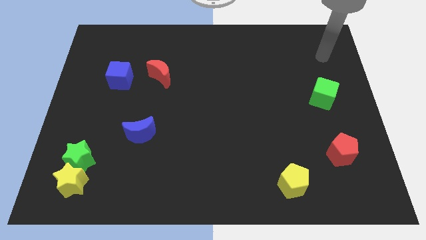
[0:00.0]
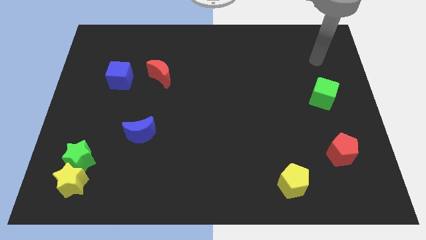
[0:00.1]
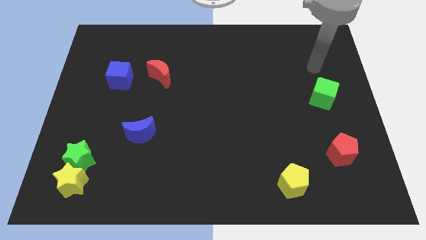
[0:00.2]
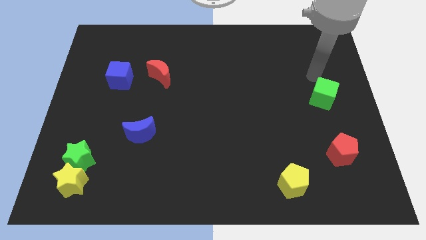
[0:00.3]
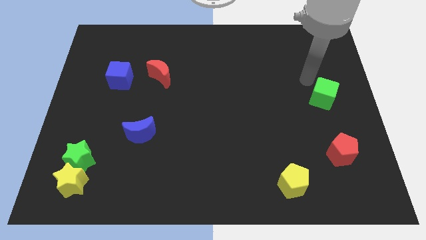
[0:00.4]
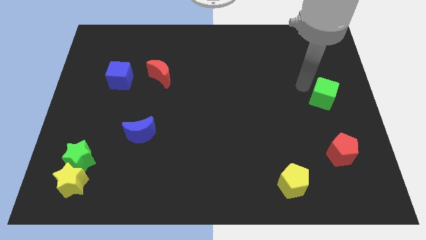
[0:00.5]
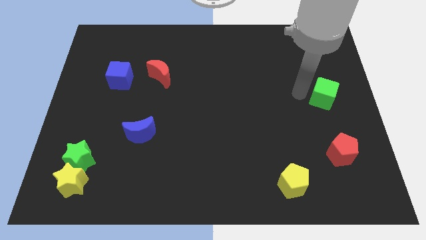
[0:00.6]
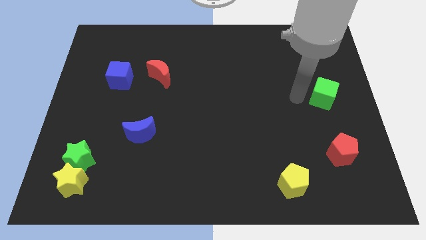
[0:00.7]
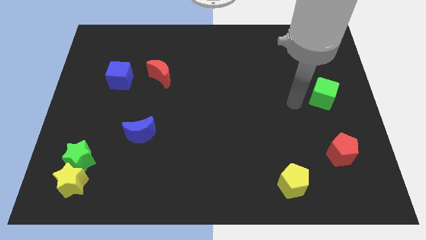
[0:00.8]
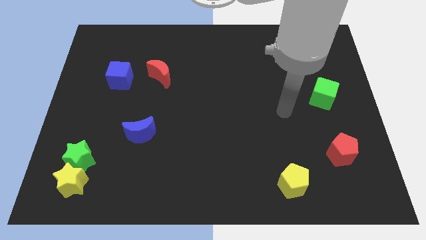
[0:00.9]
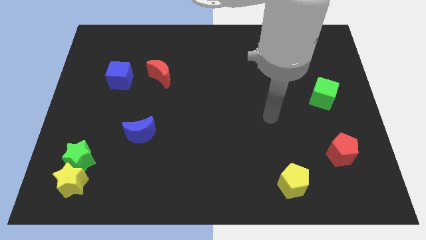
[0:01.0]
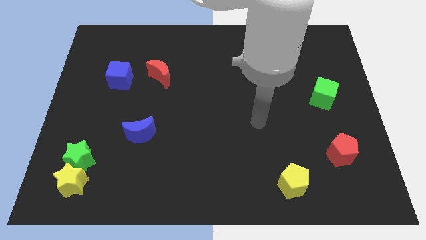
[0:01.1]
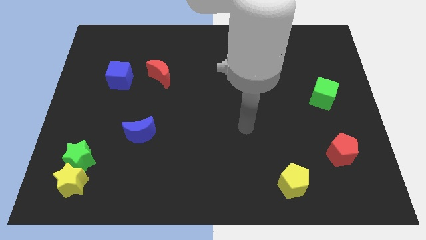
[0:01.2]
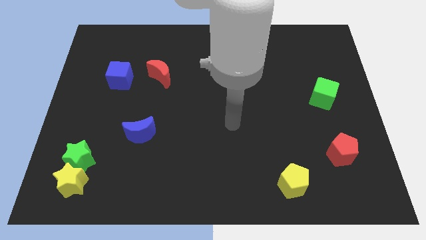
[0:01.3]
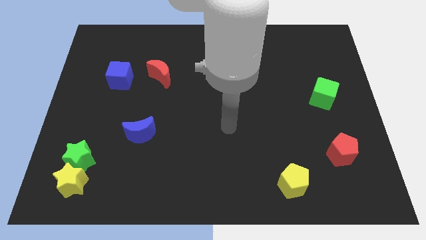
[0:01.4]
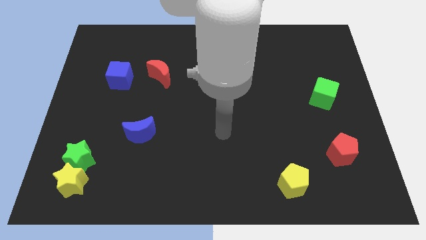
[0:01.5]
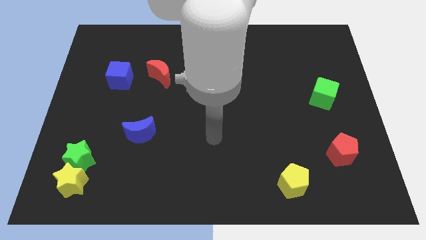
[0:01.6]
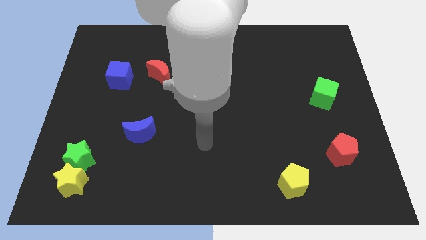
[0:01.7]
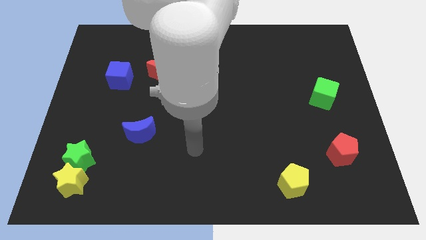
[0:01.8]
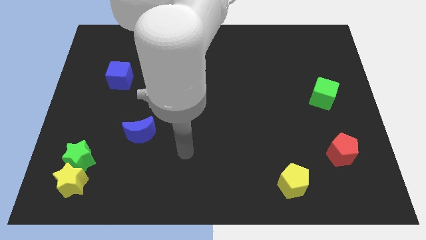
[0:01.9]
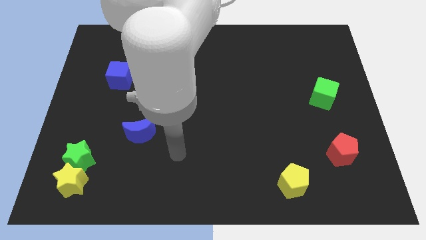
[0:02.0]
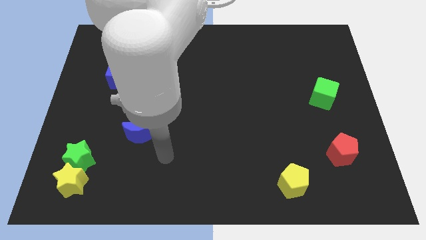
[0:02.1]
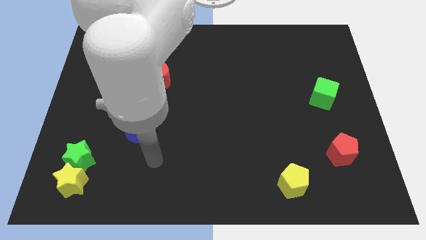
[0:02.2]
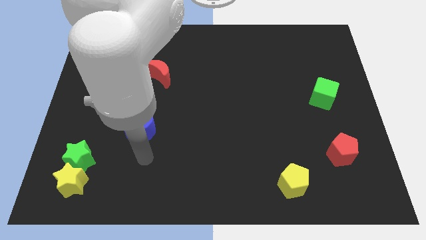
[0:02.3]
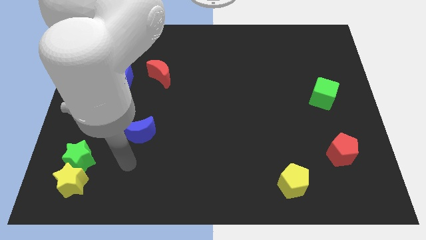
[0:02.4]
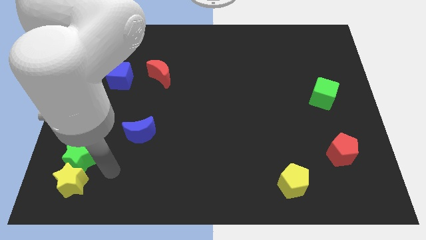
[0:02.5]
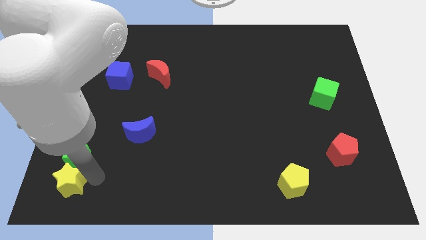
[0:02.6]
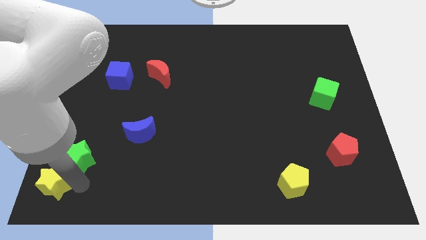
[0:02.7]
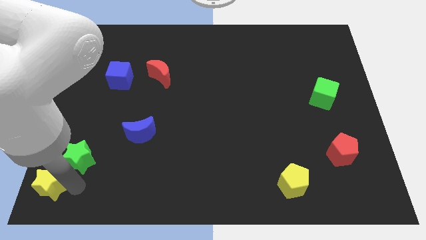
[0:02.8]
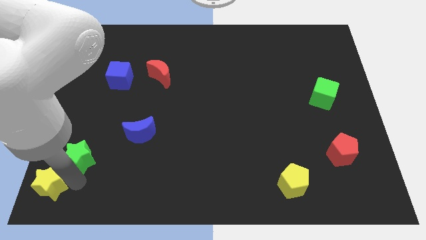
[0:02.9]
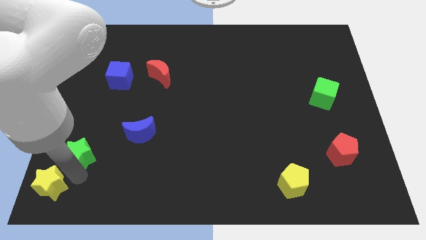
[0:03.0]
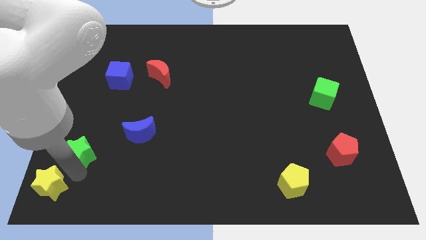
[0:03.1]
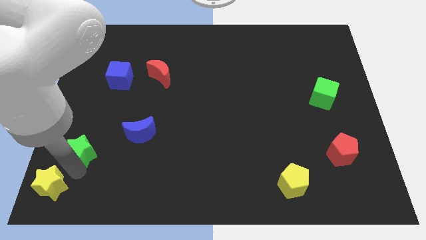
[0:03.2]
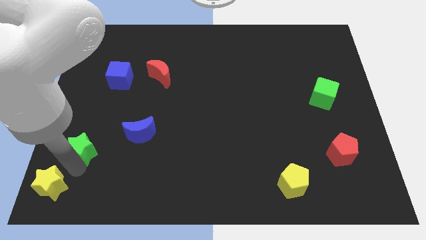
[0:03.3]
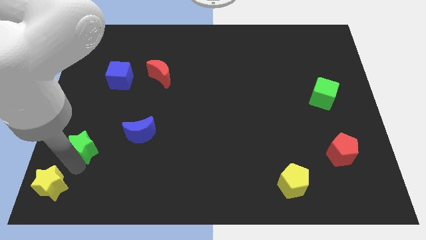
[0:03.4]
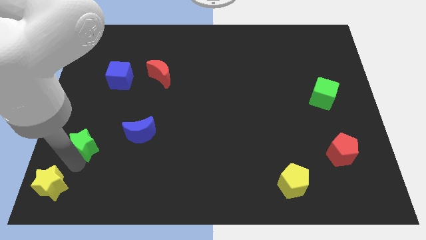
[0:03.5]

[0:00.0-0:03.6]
separate the green star from the yellow star

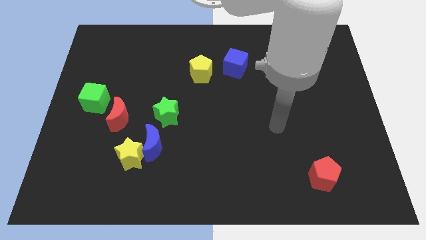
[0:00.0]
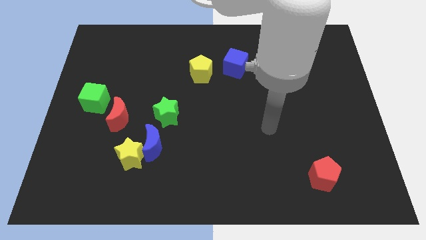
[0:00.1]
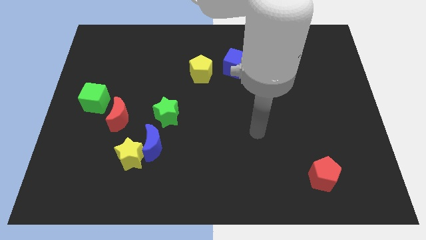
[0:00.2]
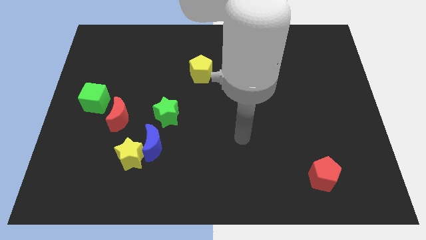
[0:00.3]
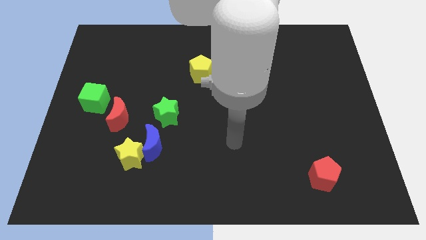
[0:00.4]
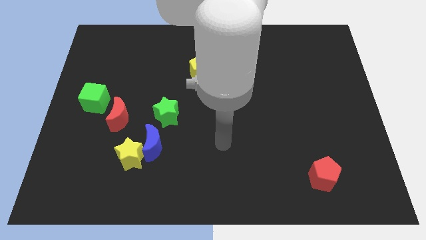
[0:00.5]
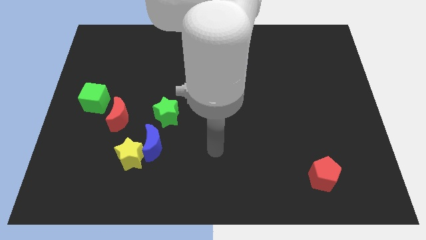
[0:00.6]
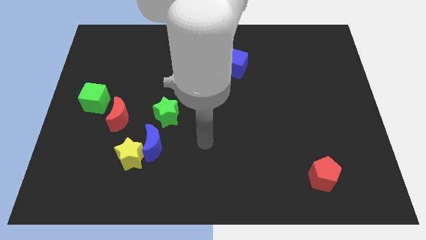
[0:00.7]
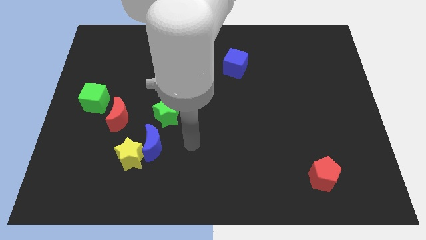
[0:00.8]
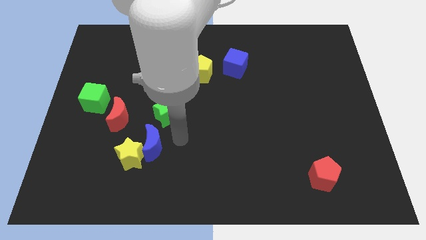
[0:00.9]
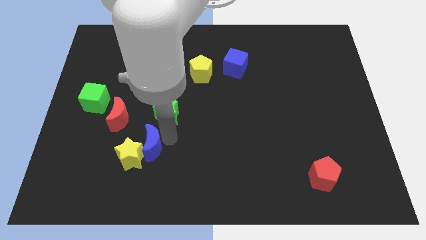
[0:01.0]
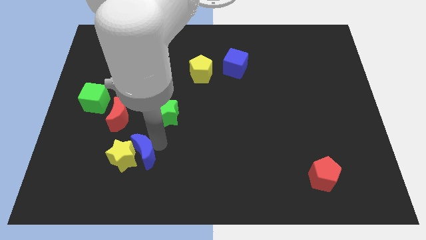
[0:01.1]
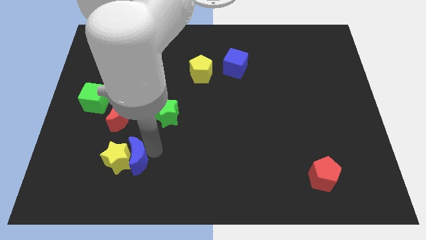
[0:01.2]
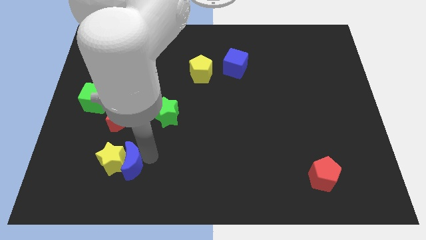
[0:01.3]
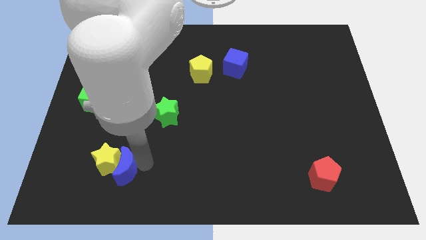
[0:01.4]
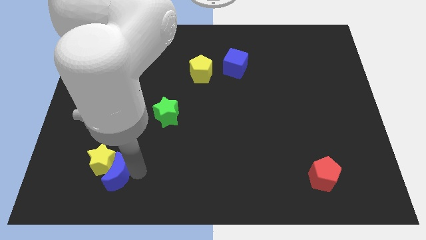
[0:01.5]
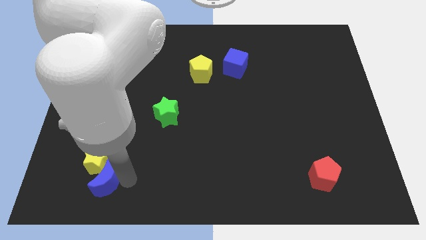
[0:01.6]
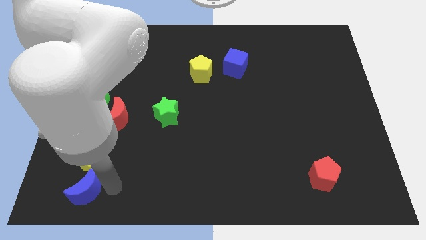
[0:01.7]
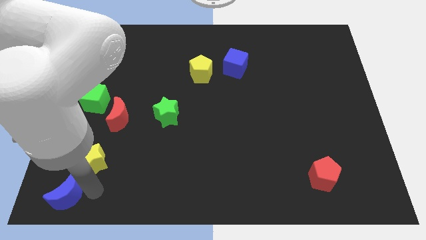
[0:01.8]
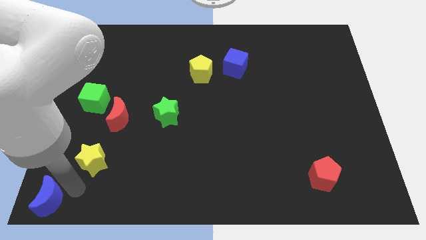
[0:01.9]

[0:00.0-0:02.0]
separate the yellow star from the blue moon

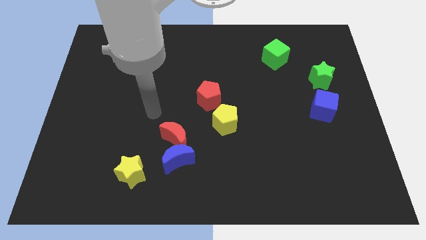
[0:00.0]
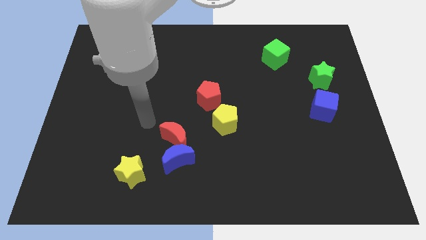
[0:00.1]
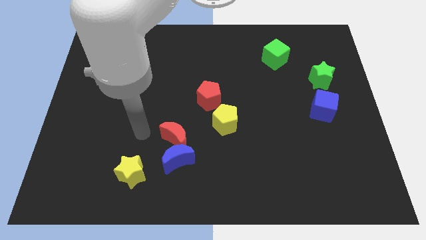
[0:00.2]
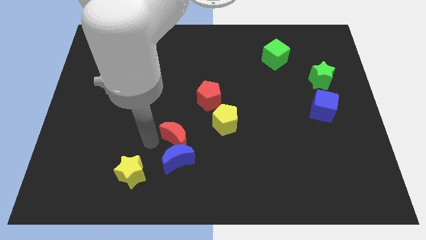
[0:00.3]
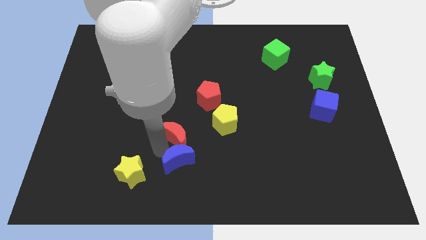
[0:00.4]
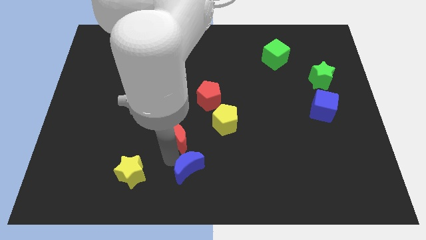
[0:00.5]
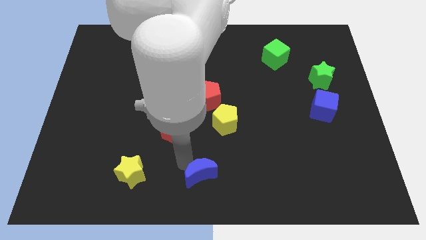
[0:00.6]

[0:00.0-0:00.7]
separate the red moon from the blue moon

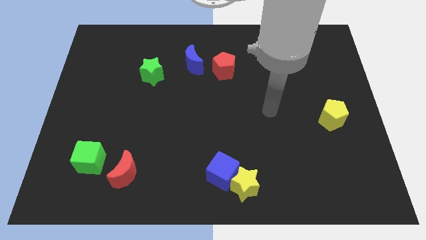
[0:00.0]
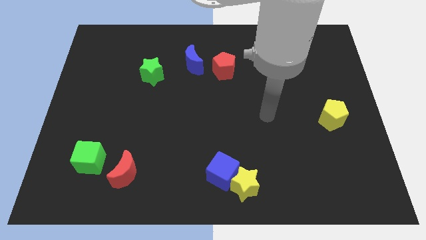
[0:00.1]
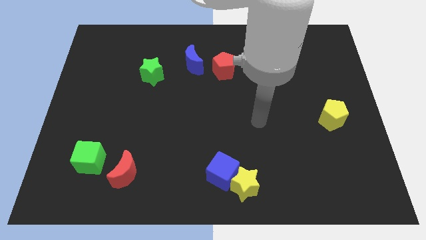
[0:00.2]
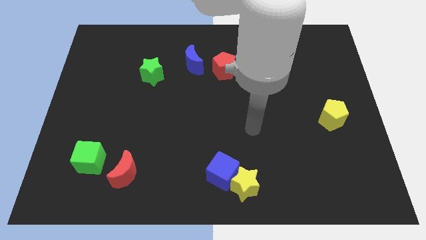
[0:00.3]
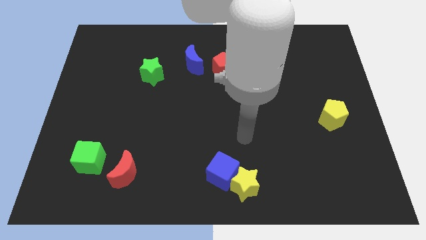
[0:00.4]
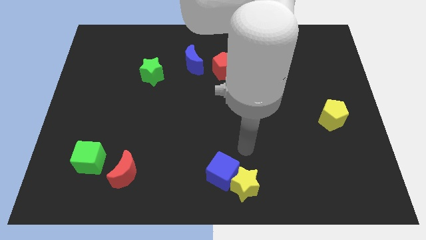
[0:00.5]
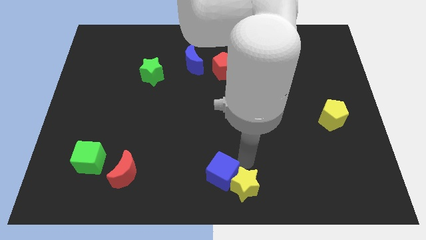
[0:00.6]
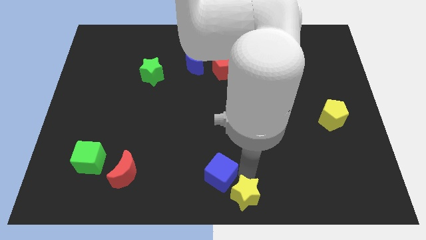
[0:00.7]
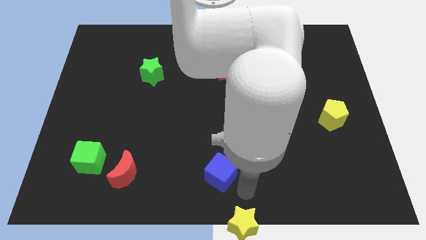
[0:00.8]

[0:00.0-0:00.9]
move the blue cube away from the yellow star

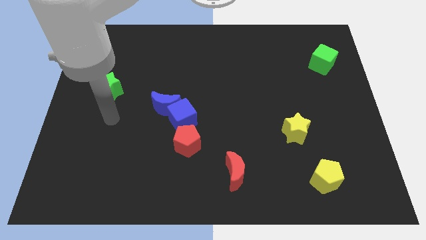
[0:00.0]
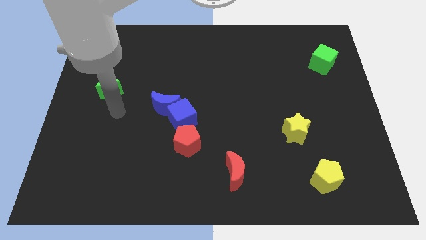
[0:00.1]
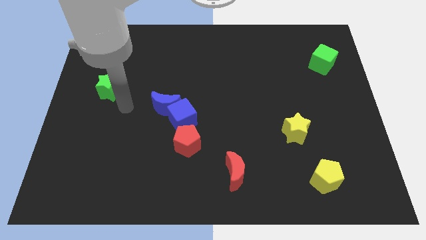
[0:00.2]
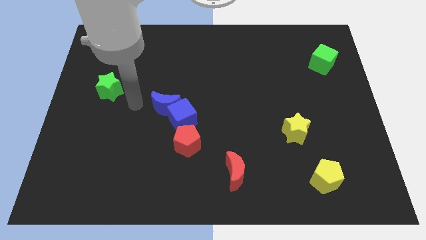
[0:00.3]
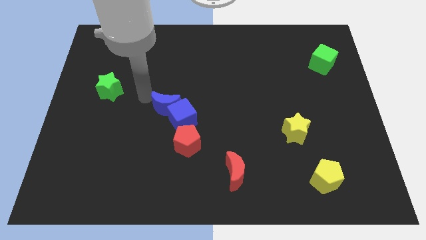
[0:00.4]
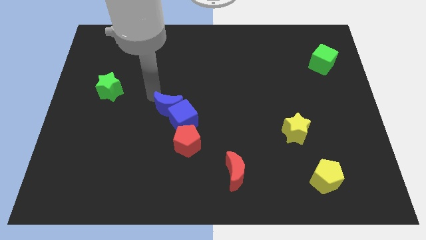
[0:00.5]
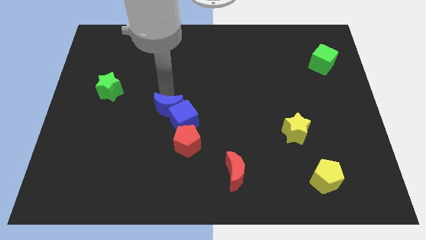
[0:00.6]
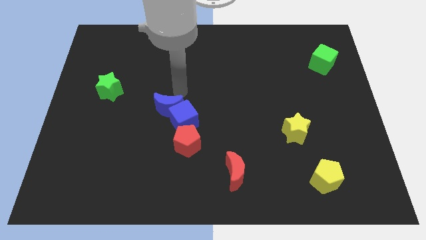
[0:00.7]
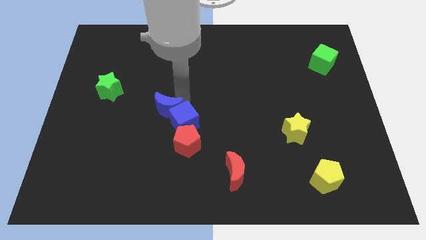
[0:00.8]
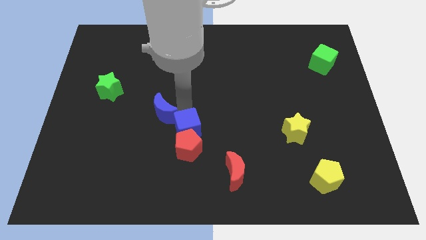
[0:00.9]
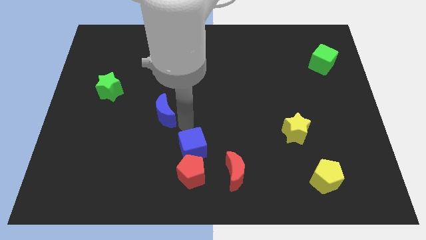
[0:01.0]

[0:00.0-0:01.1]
separate the blue moon from the blue cube

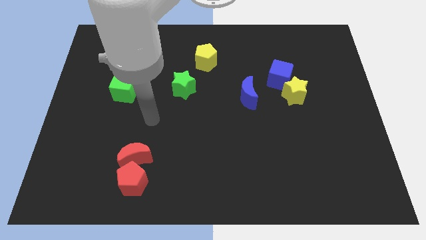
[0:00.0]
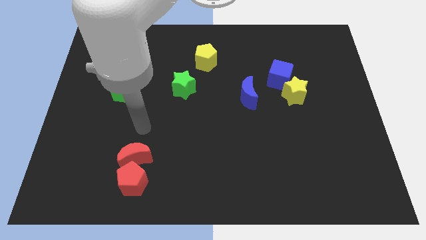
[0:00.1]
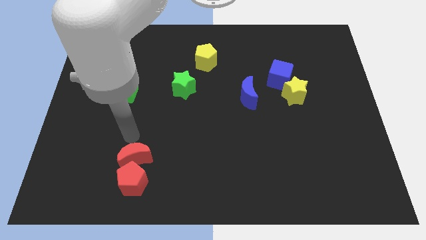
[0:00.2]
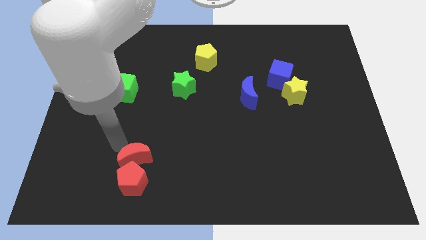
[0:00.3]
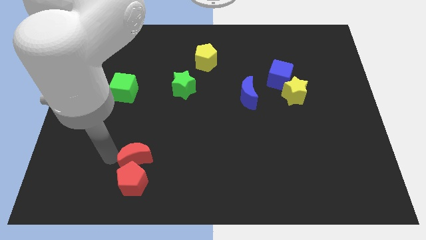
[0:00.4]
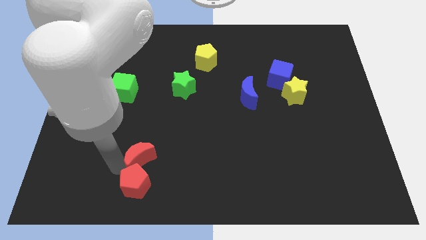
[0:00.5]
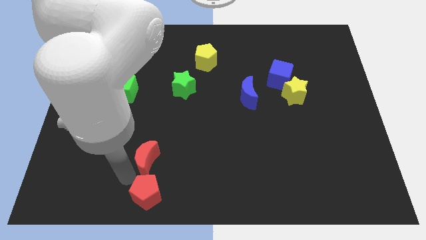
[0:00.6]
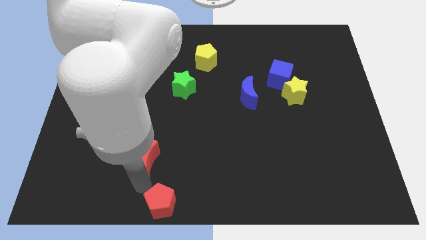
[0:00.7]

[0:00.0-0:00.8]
pull the red moon apart from the red pentagon

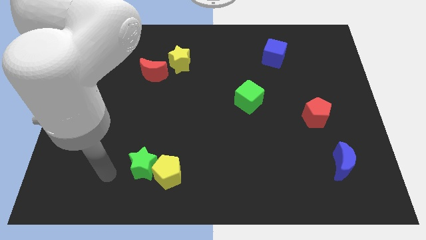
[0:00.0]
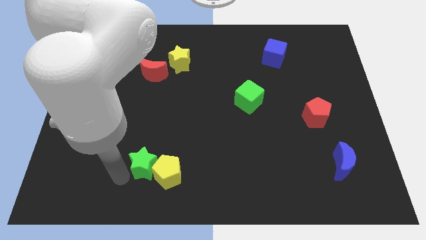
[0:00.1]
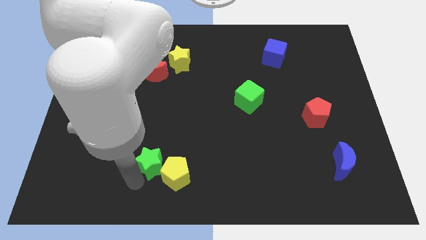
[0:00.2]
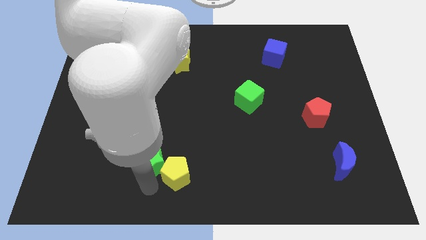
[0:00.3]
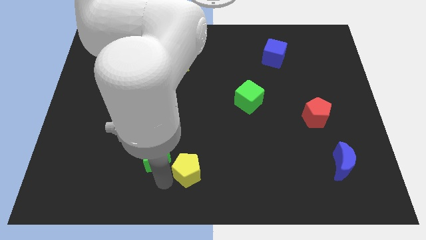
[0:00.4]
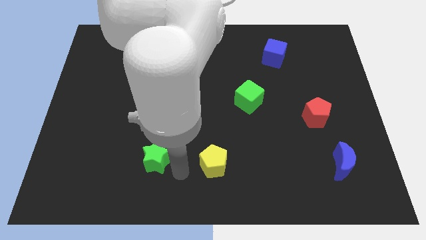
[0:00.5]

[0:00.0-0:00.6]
pull the green star apart from the yellow pentagon
